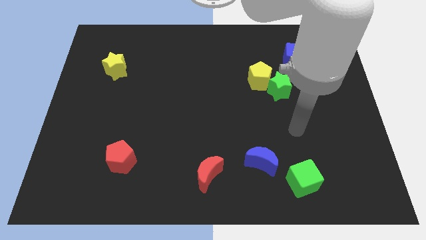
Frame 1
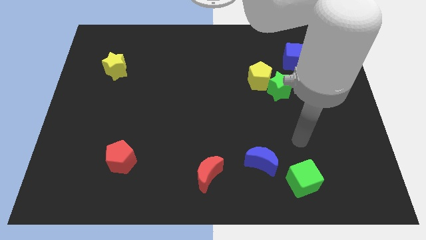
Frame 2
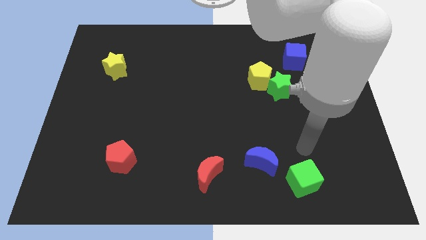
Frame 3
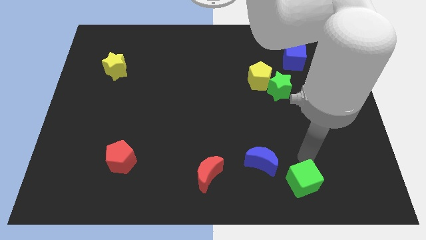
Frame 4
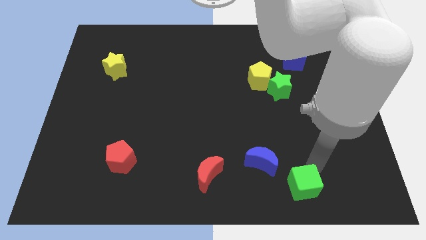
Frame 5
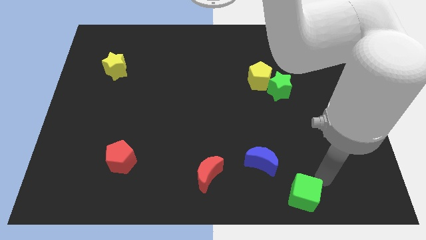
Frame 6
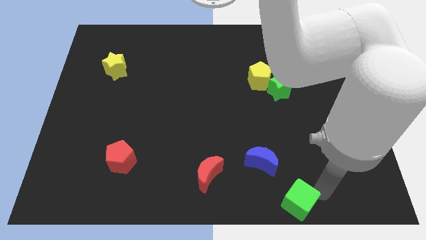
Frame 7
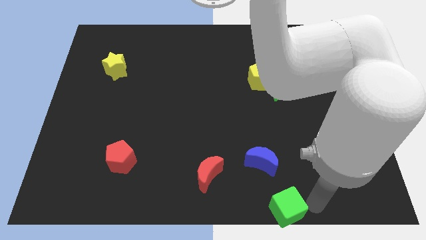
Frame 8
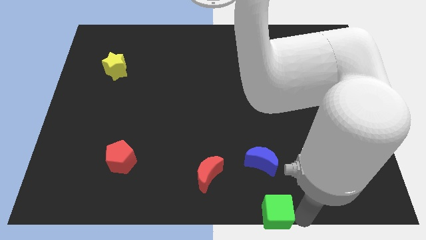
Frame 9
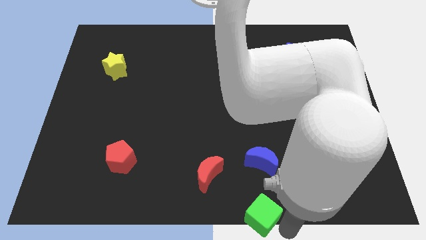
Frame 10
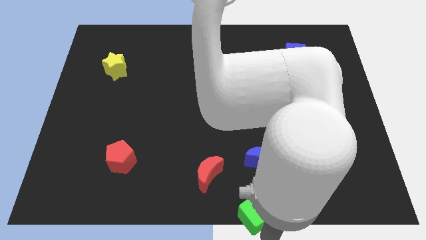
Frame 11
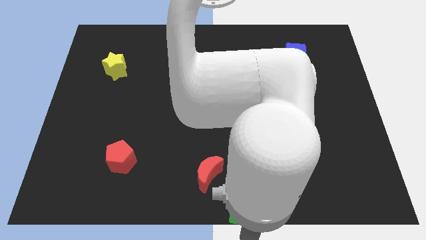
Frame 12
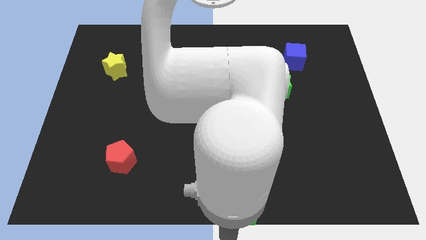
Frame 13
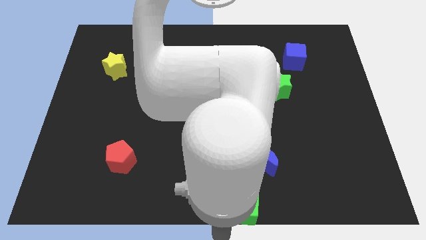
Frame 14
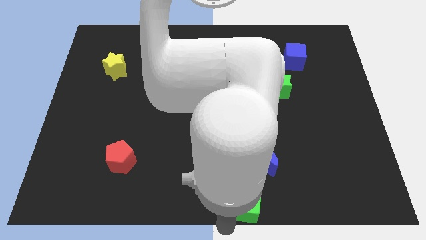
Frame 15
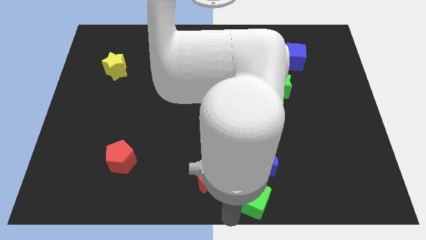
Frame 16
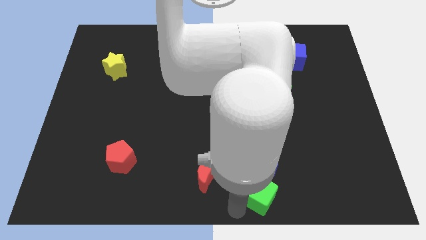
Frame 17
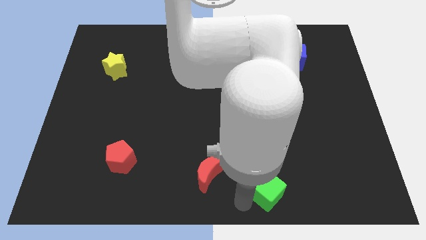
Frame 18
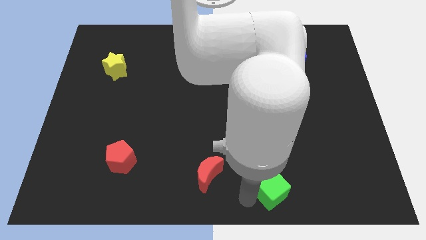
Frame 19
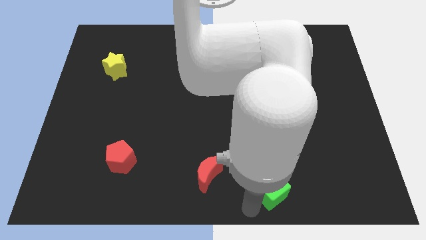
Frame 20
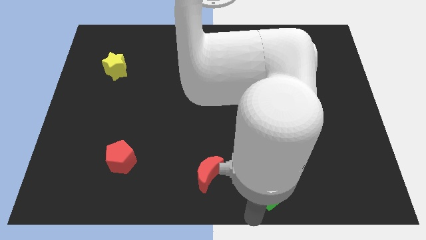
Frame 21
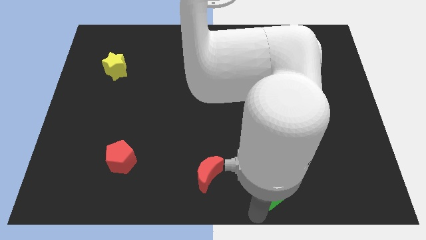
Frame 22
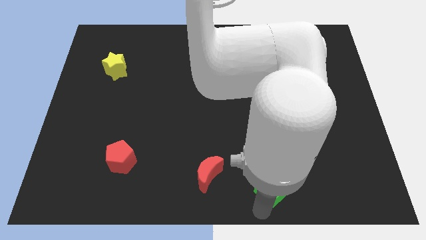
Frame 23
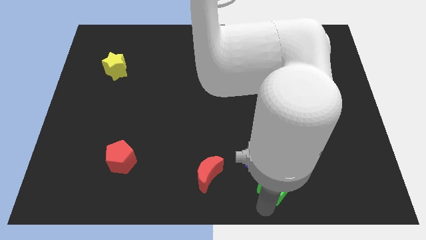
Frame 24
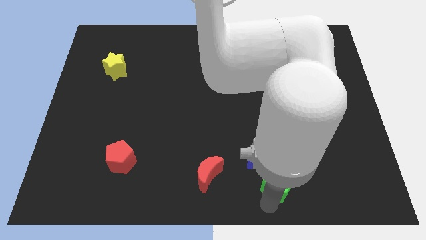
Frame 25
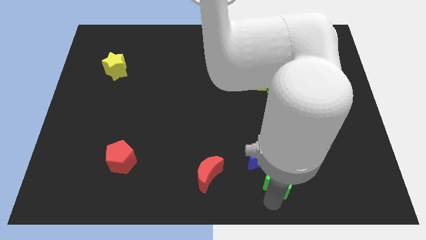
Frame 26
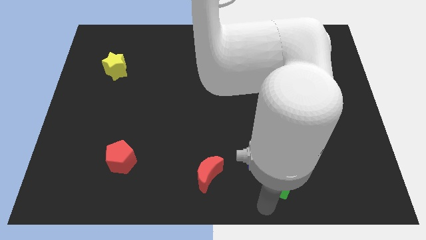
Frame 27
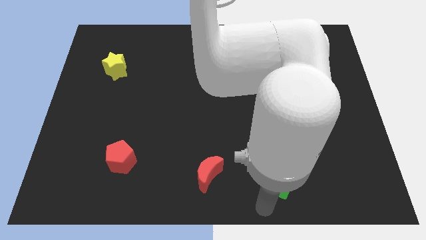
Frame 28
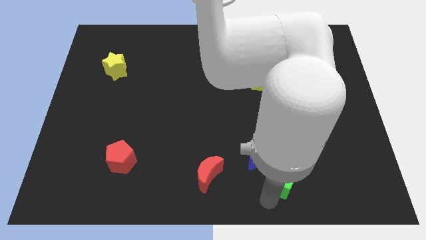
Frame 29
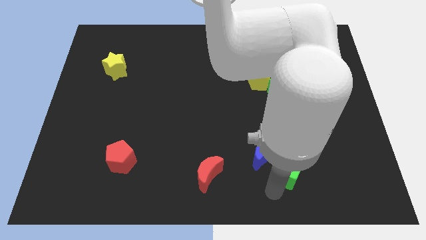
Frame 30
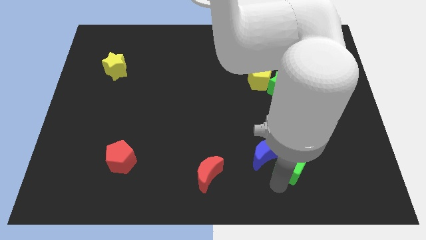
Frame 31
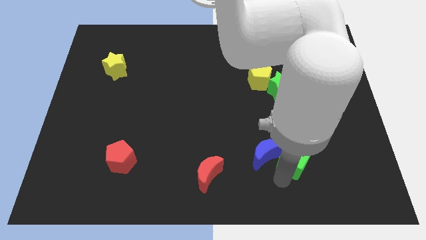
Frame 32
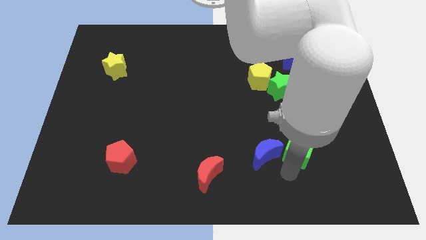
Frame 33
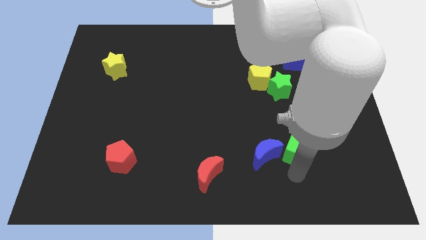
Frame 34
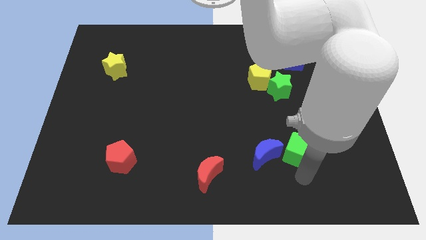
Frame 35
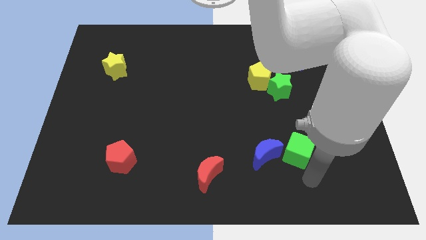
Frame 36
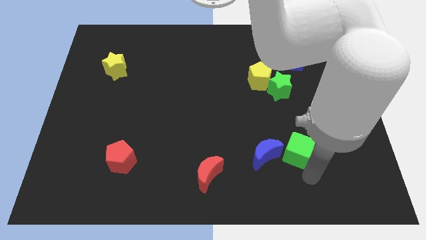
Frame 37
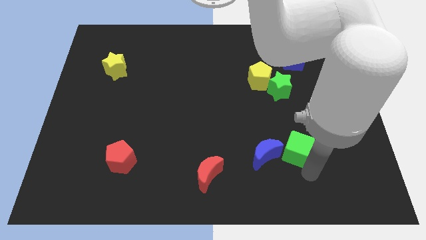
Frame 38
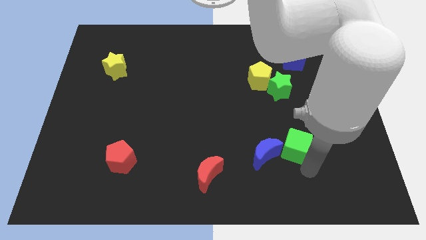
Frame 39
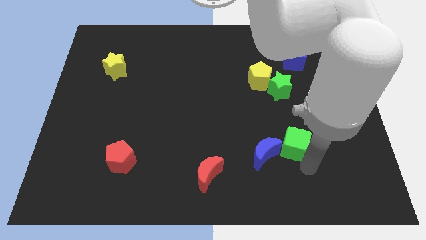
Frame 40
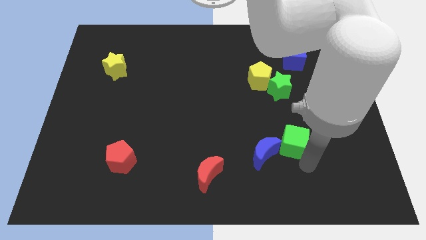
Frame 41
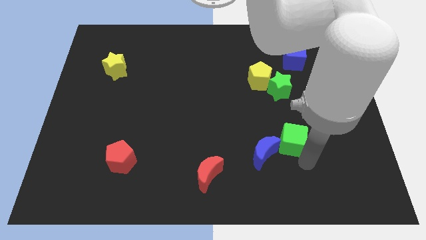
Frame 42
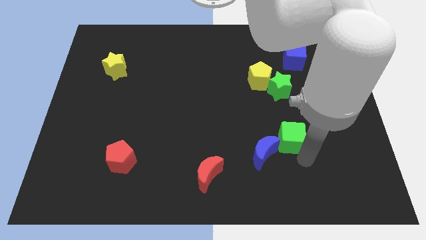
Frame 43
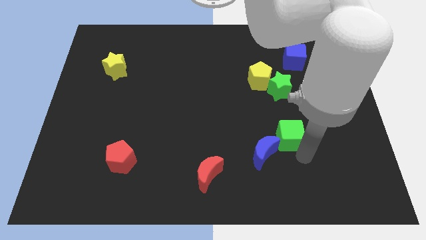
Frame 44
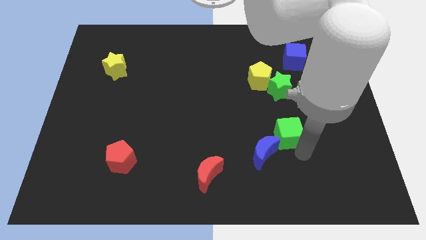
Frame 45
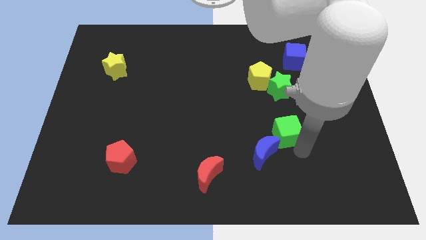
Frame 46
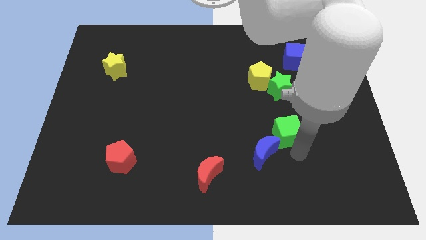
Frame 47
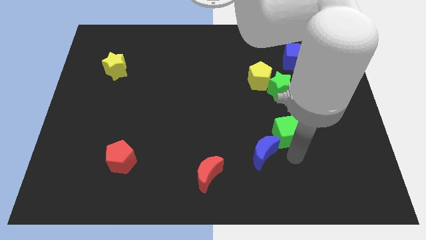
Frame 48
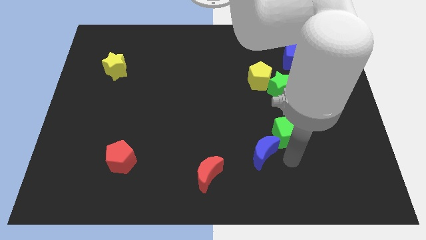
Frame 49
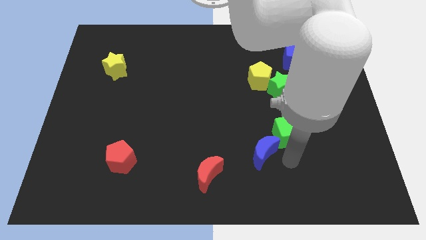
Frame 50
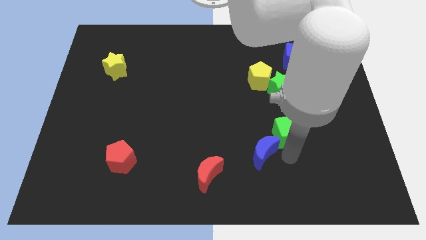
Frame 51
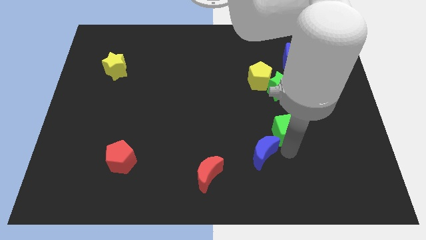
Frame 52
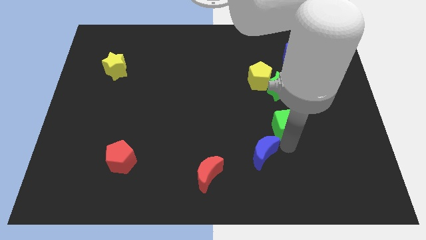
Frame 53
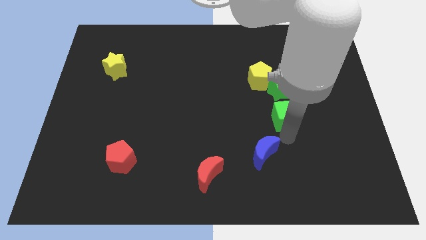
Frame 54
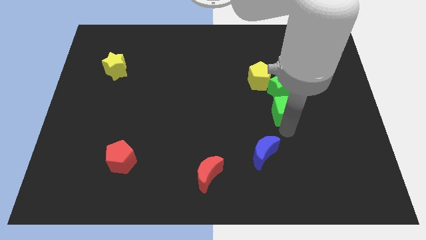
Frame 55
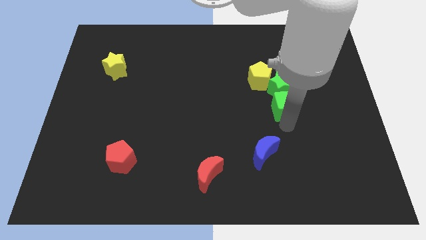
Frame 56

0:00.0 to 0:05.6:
put the green cube next to the green star

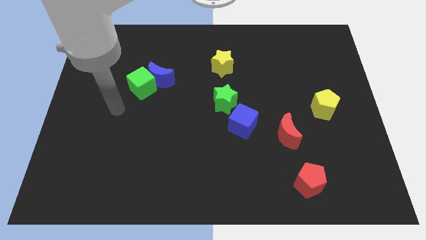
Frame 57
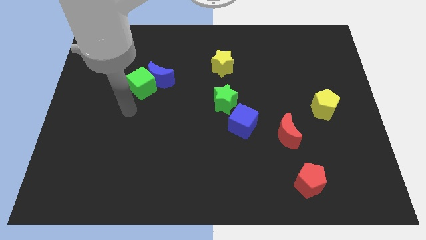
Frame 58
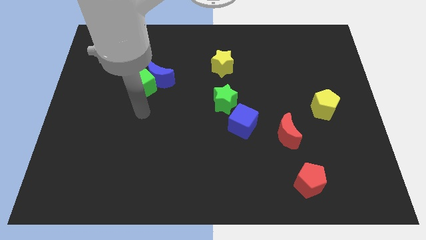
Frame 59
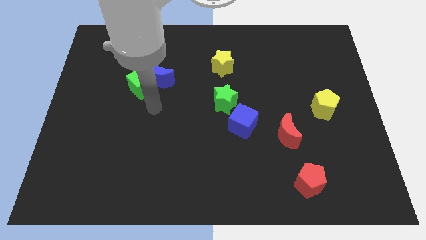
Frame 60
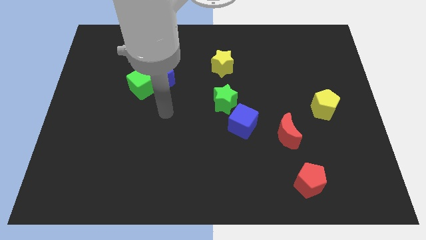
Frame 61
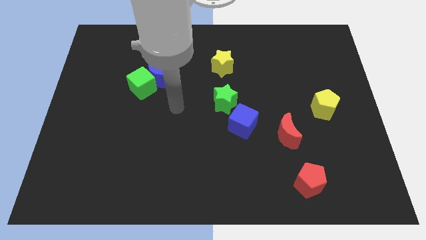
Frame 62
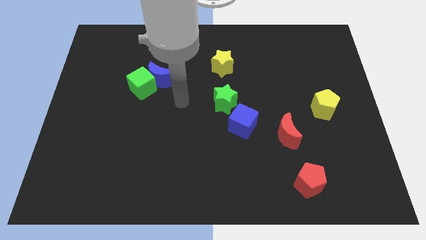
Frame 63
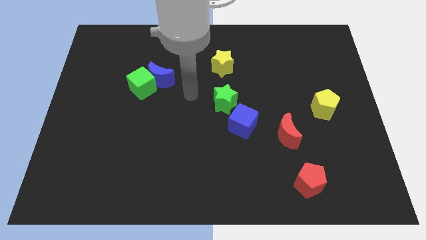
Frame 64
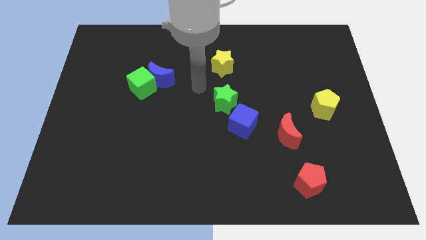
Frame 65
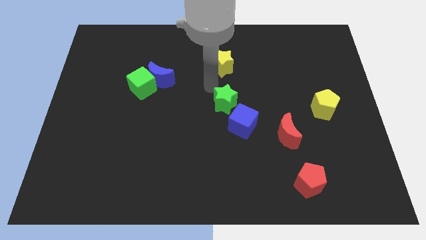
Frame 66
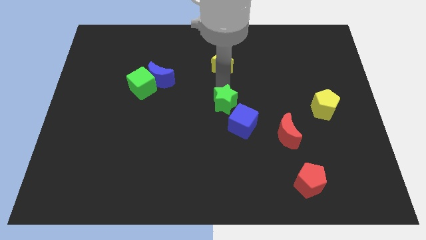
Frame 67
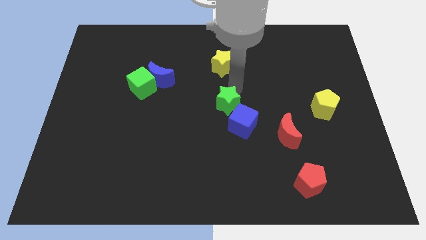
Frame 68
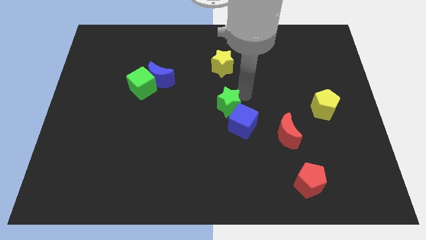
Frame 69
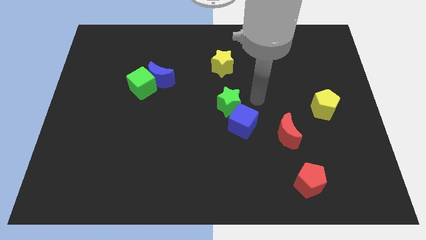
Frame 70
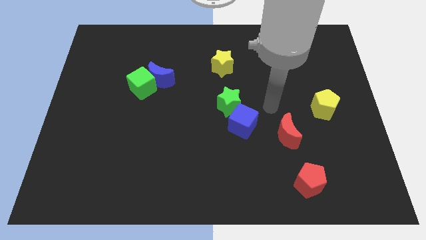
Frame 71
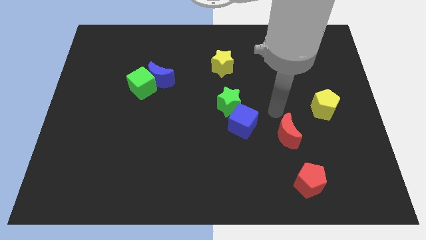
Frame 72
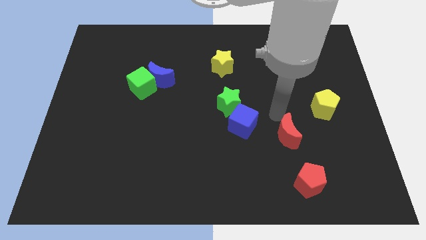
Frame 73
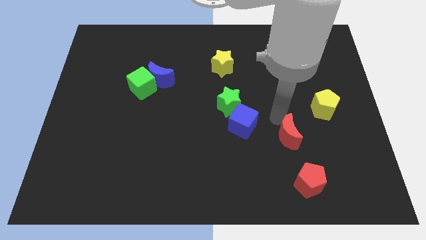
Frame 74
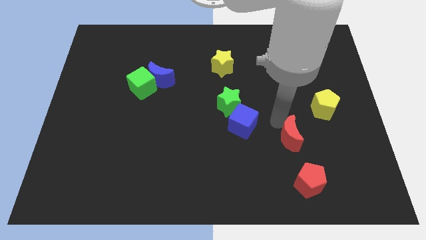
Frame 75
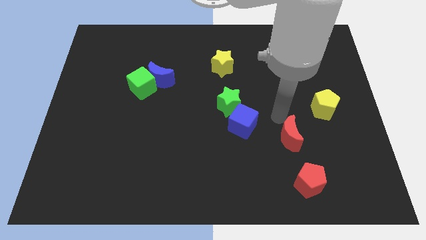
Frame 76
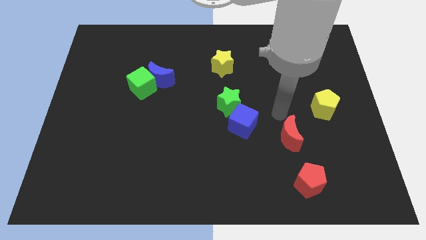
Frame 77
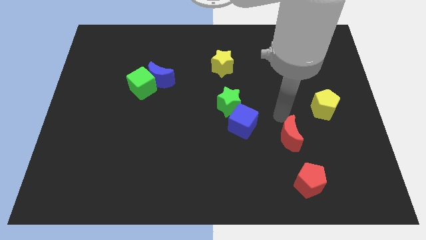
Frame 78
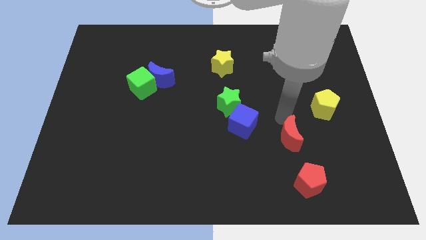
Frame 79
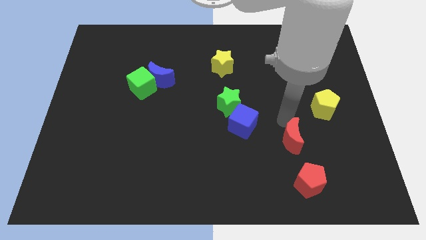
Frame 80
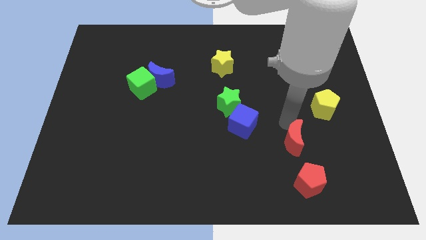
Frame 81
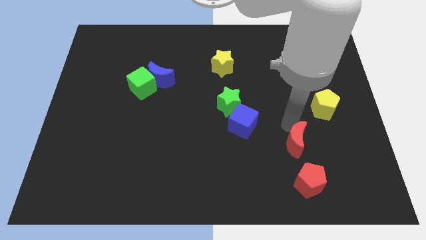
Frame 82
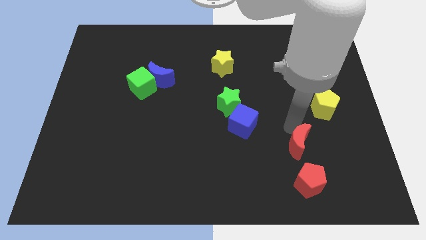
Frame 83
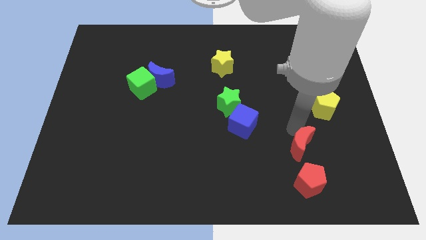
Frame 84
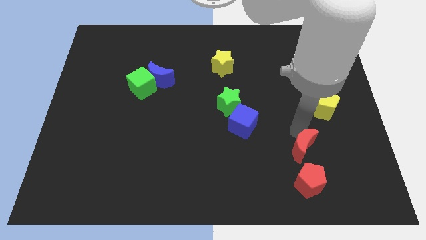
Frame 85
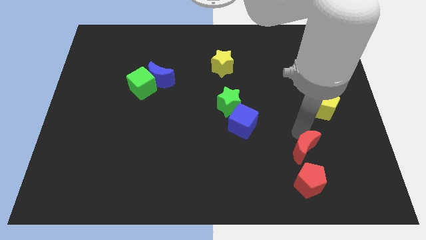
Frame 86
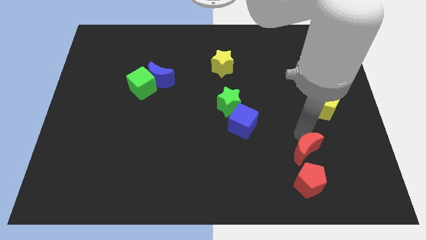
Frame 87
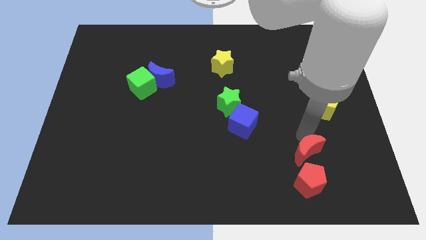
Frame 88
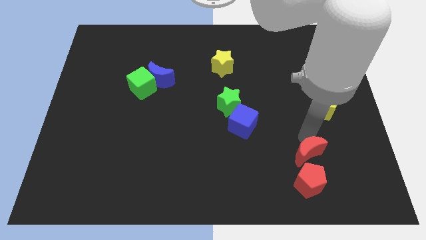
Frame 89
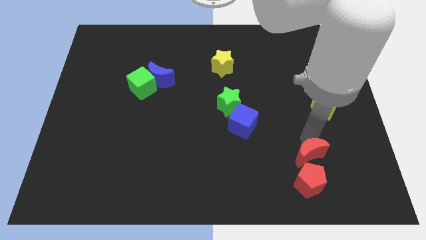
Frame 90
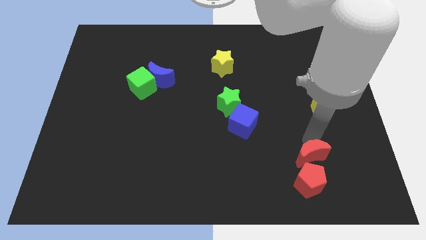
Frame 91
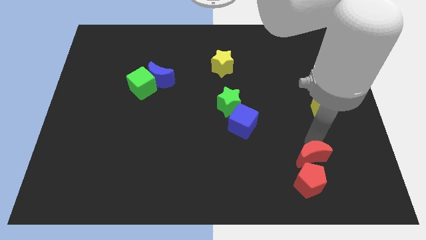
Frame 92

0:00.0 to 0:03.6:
slide the red moon towards the red pentagon
